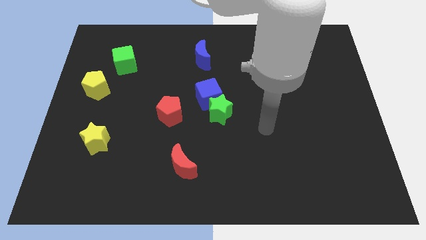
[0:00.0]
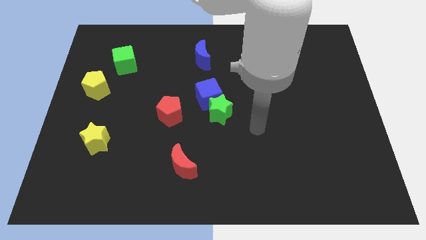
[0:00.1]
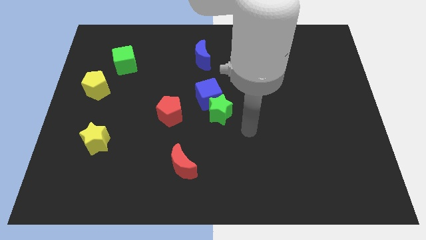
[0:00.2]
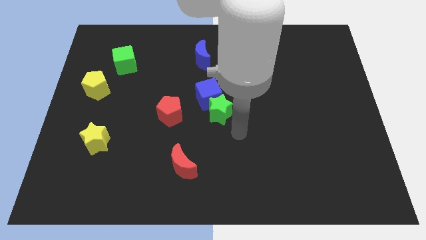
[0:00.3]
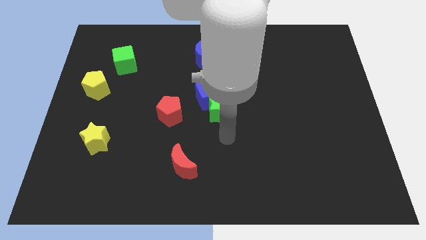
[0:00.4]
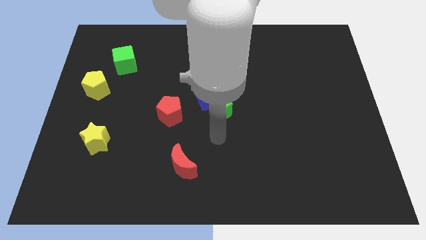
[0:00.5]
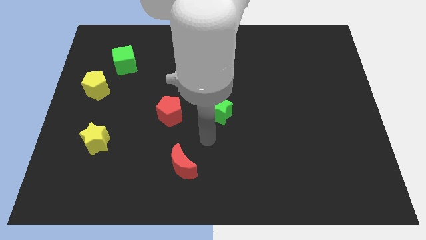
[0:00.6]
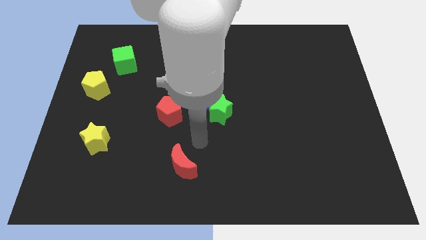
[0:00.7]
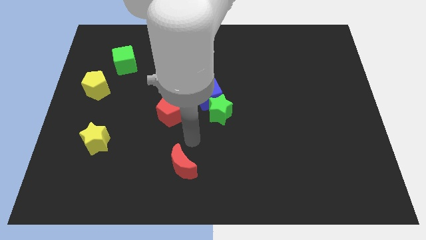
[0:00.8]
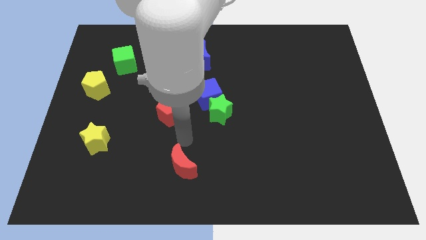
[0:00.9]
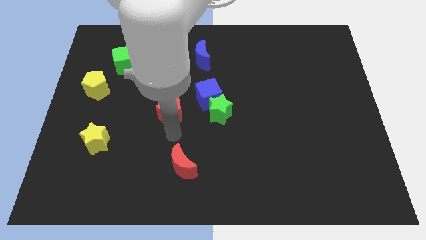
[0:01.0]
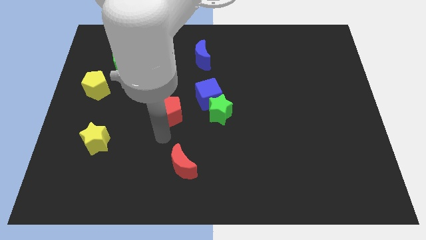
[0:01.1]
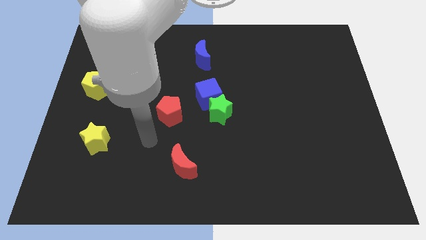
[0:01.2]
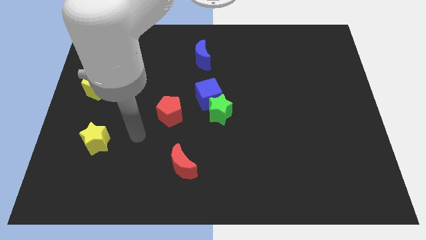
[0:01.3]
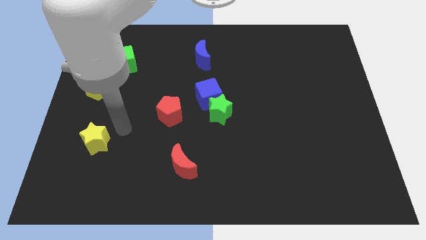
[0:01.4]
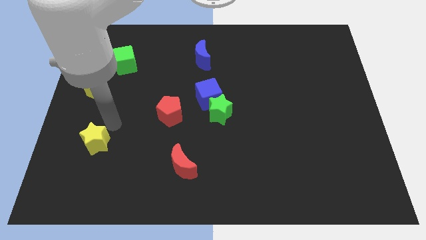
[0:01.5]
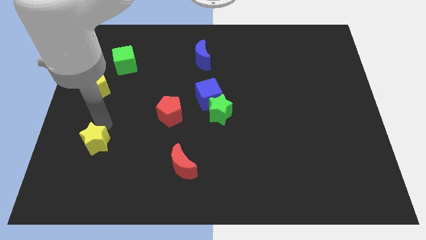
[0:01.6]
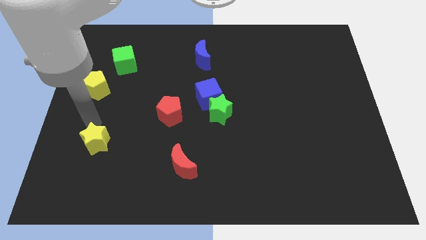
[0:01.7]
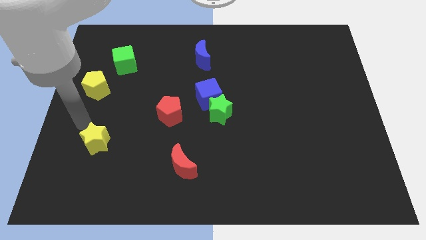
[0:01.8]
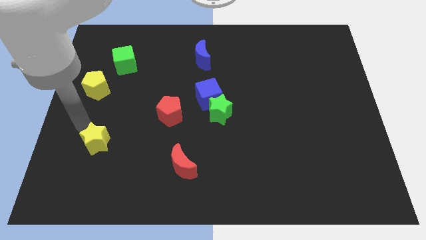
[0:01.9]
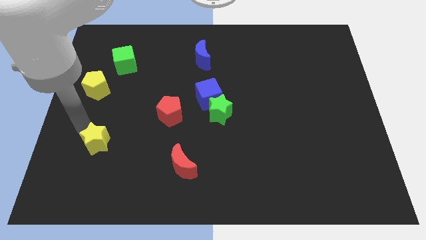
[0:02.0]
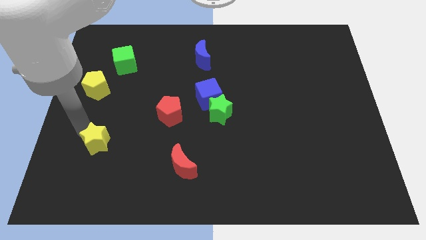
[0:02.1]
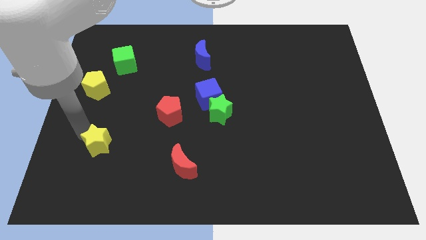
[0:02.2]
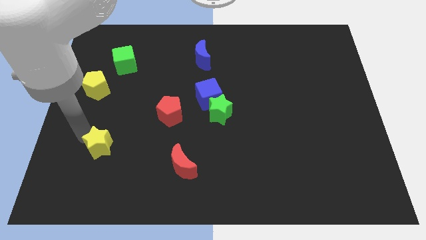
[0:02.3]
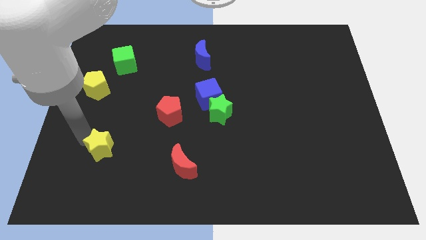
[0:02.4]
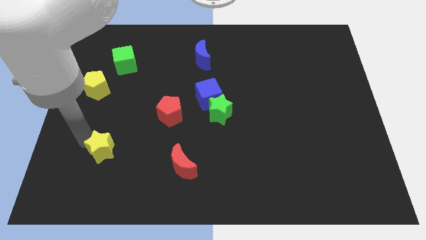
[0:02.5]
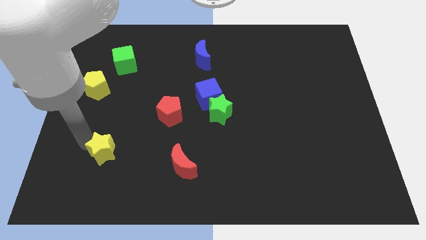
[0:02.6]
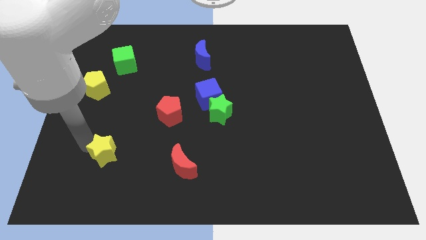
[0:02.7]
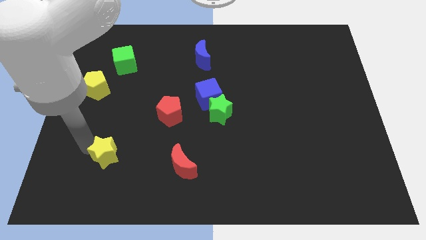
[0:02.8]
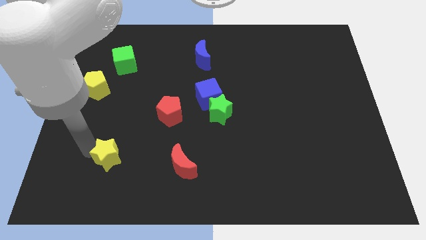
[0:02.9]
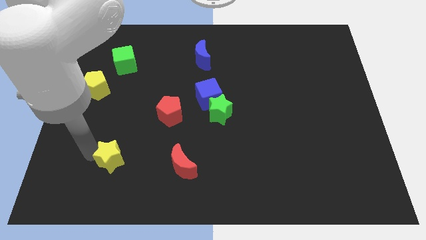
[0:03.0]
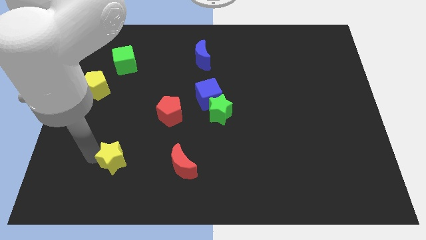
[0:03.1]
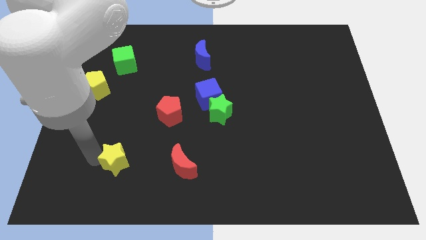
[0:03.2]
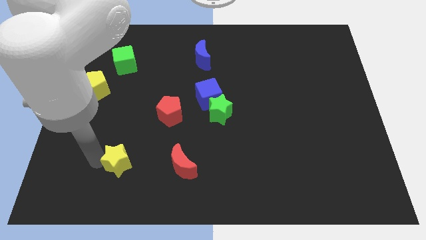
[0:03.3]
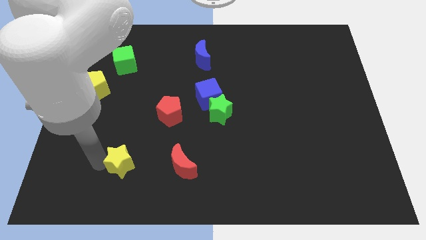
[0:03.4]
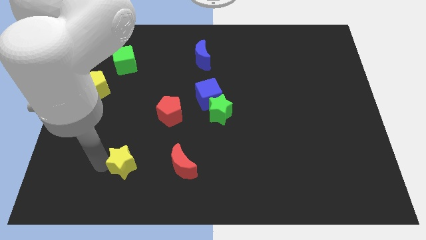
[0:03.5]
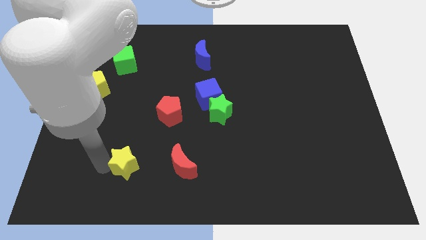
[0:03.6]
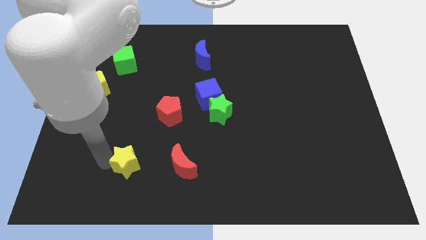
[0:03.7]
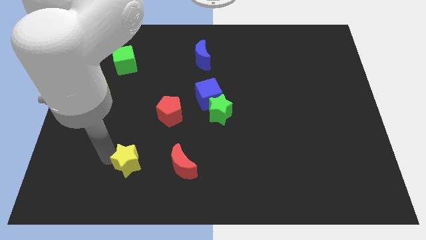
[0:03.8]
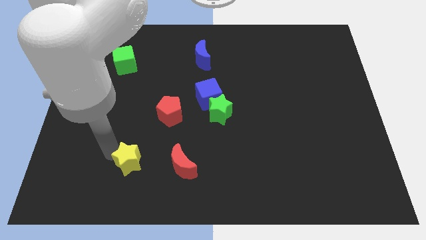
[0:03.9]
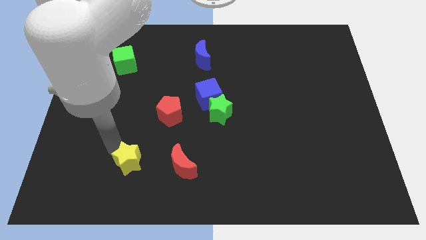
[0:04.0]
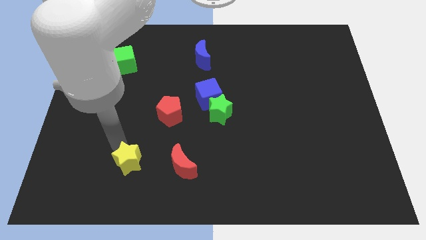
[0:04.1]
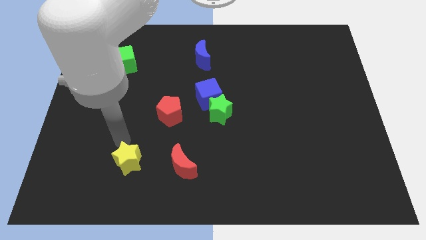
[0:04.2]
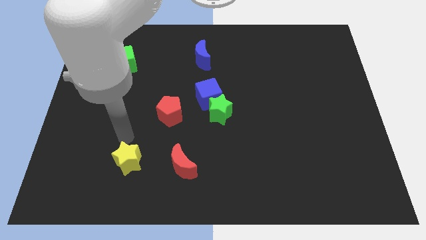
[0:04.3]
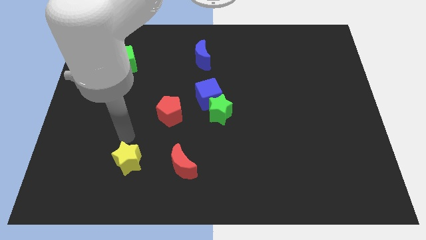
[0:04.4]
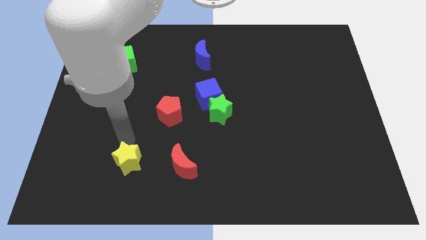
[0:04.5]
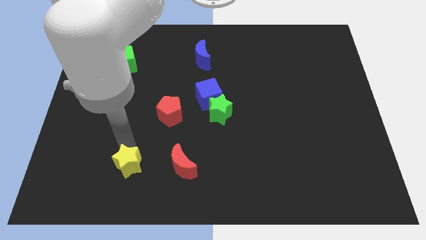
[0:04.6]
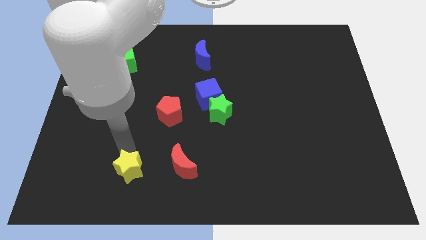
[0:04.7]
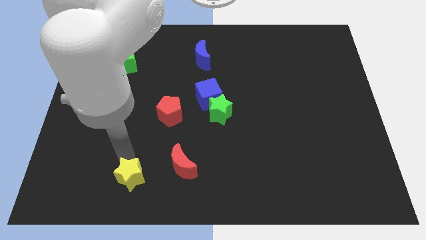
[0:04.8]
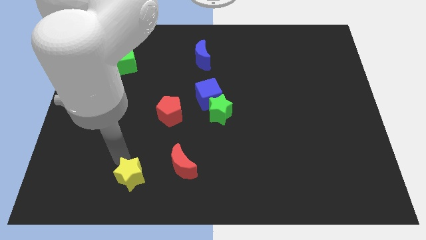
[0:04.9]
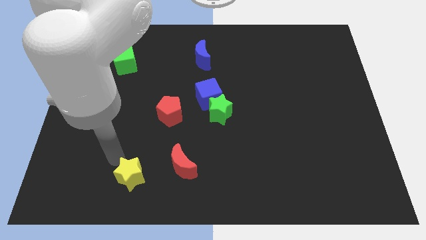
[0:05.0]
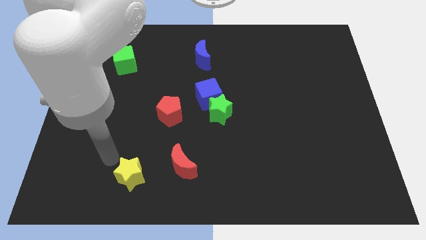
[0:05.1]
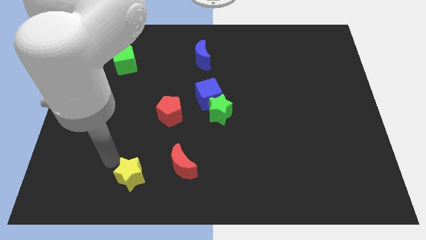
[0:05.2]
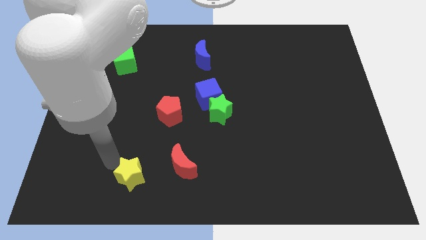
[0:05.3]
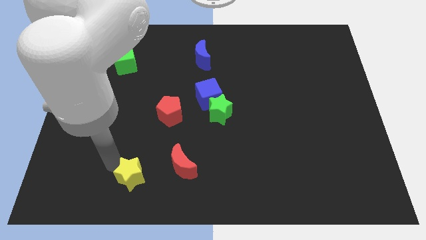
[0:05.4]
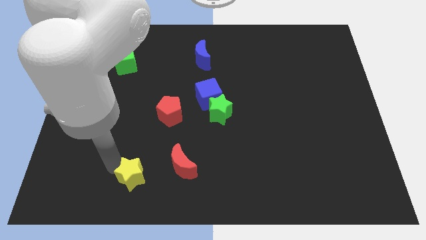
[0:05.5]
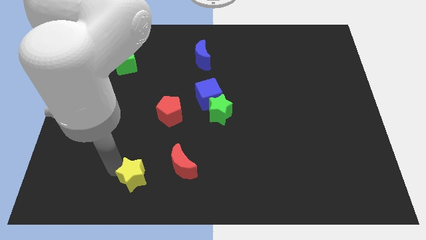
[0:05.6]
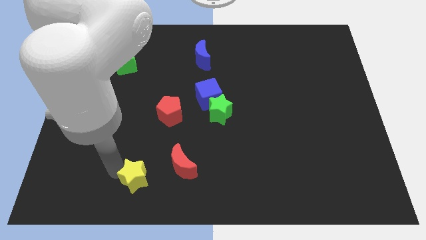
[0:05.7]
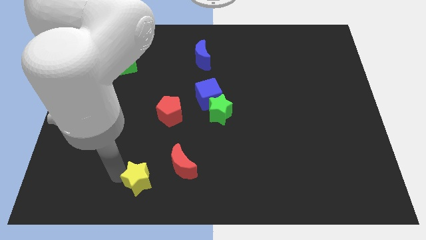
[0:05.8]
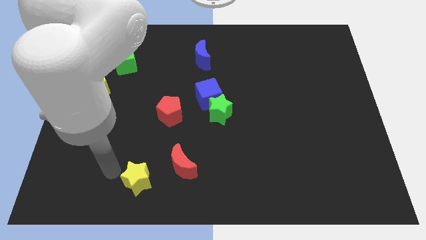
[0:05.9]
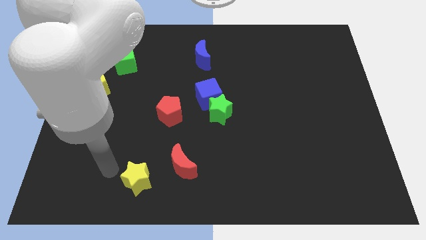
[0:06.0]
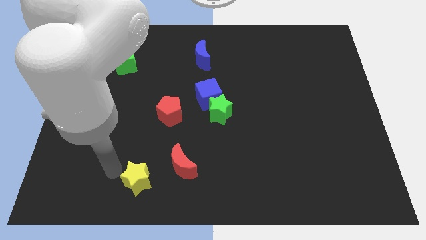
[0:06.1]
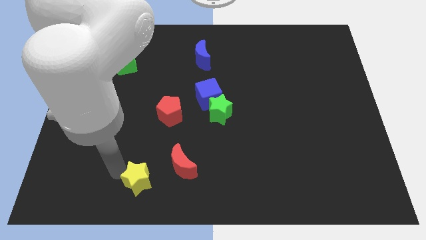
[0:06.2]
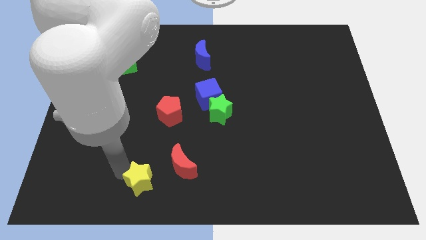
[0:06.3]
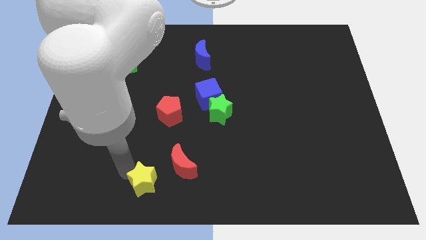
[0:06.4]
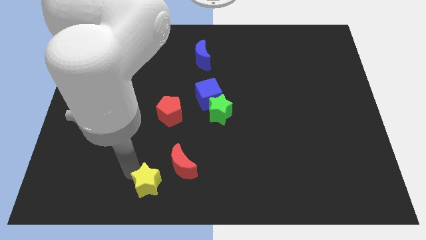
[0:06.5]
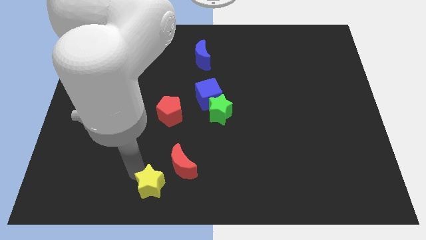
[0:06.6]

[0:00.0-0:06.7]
push the yellow star to the bottom

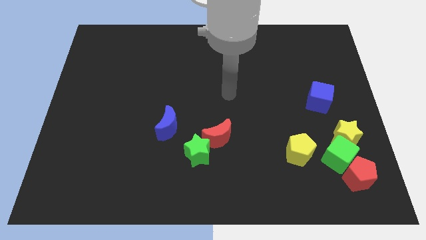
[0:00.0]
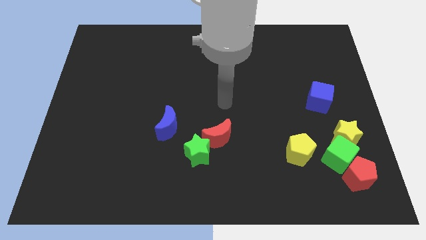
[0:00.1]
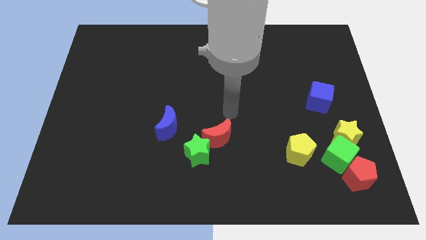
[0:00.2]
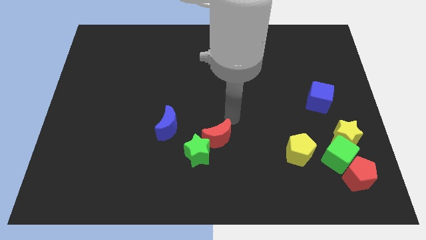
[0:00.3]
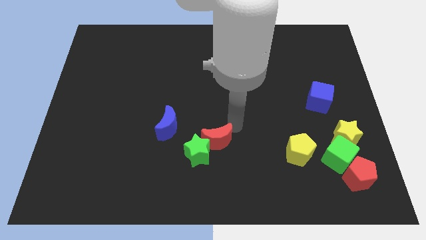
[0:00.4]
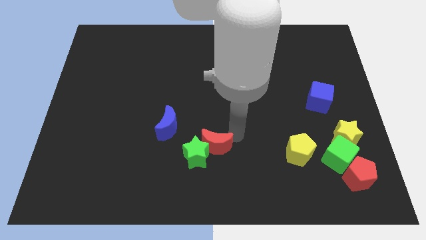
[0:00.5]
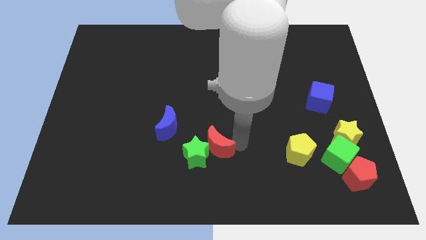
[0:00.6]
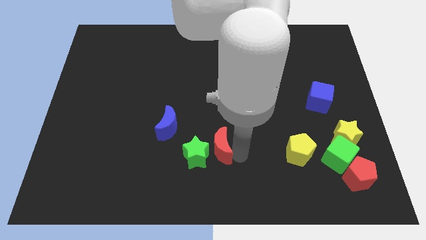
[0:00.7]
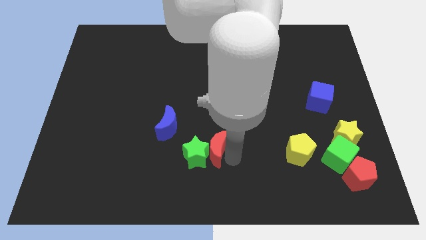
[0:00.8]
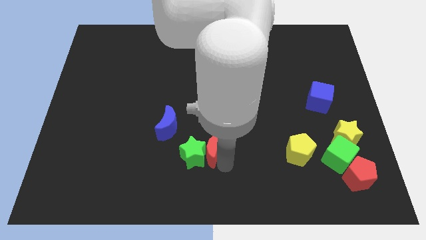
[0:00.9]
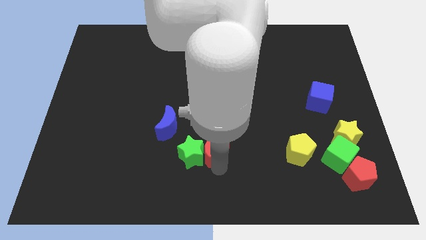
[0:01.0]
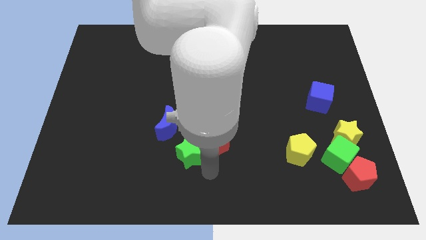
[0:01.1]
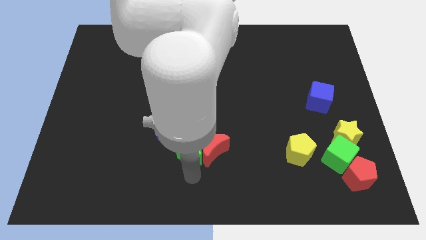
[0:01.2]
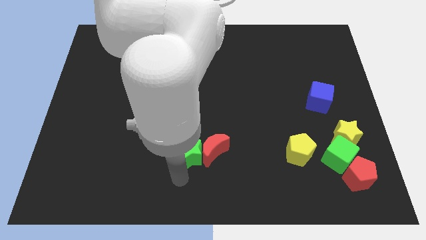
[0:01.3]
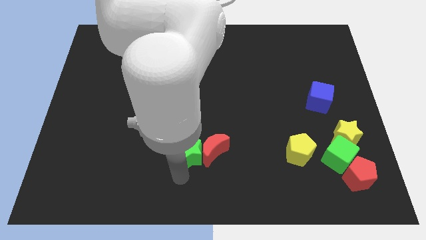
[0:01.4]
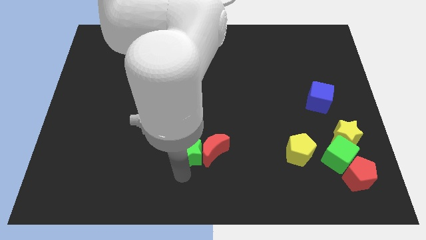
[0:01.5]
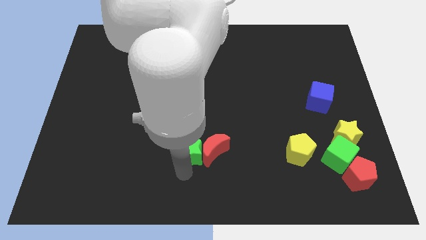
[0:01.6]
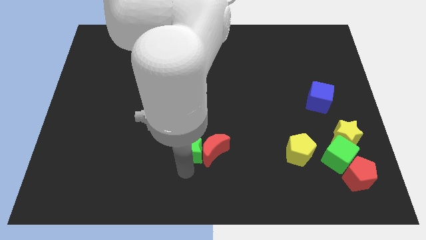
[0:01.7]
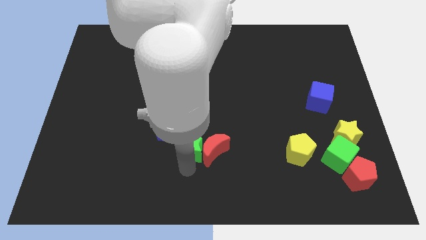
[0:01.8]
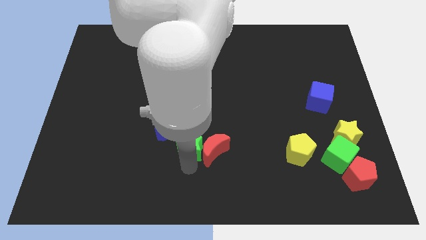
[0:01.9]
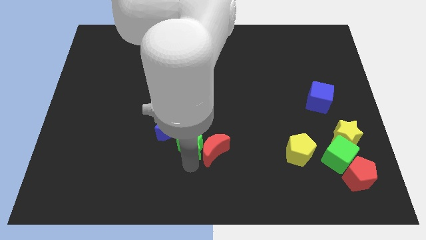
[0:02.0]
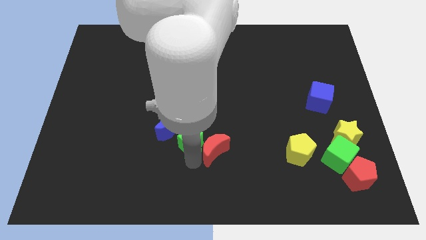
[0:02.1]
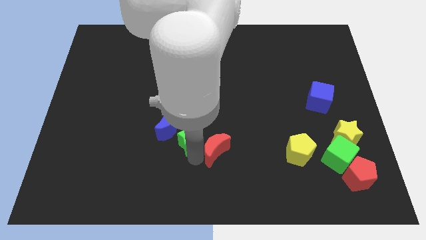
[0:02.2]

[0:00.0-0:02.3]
push the green star to the middle
